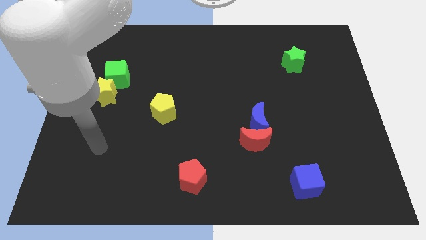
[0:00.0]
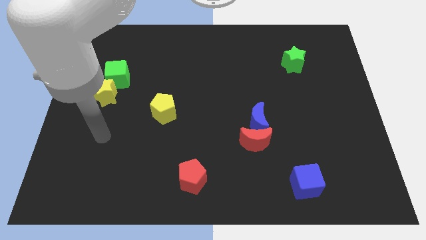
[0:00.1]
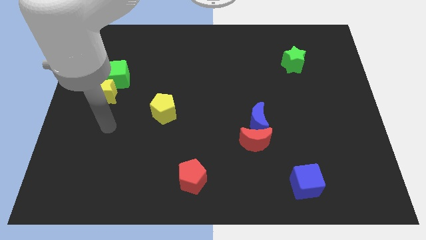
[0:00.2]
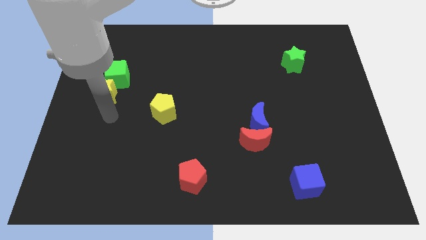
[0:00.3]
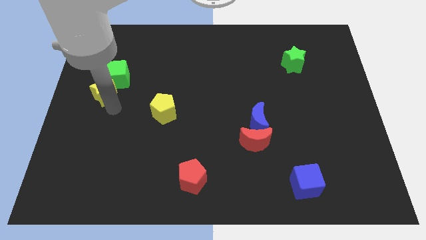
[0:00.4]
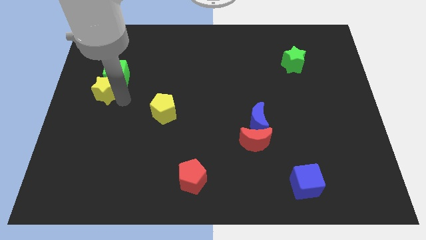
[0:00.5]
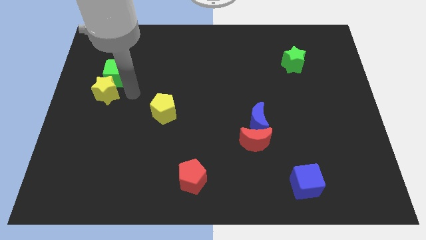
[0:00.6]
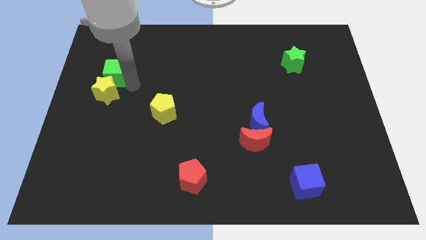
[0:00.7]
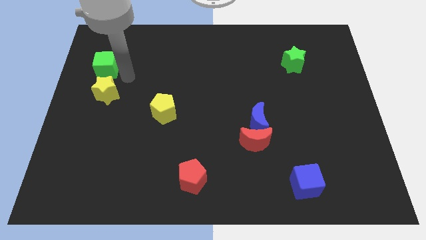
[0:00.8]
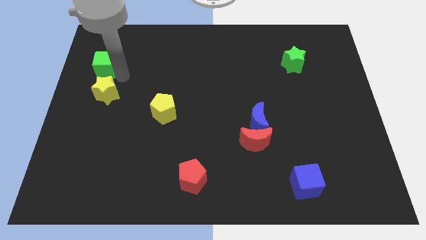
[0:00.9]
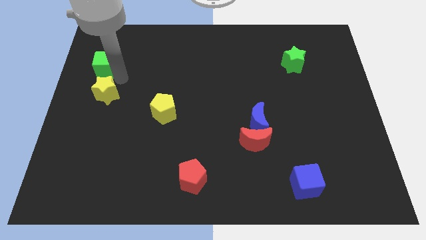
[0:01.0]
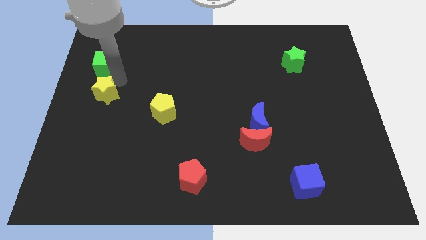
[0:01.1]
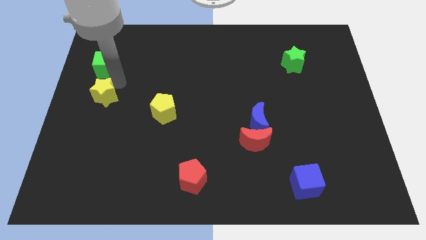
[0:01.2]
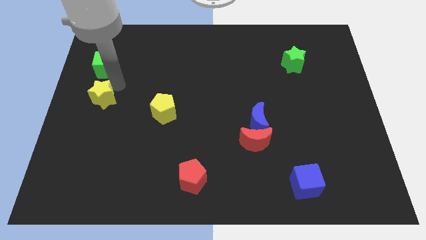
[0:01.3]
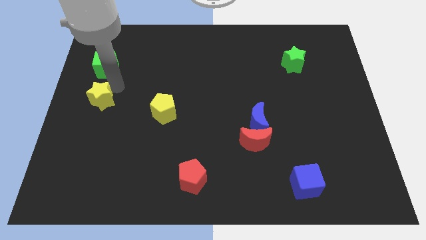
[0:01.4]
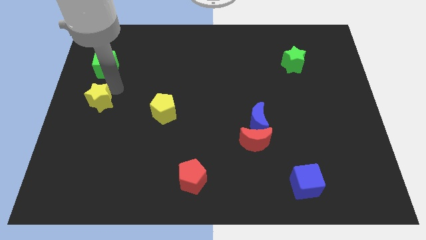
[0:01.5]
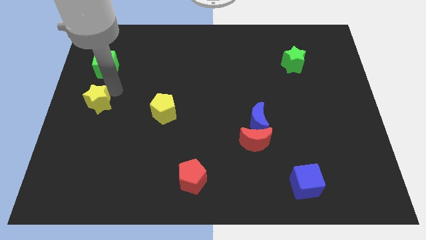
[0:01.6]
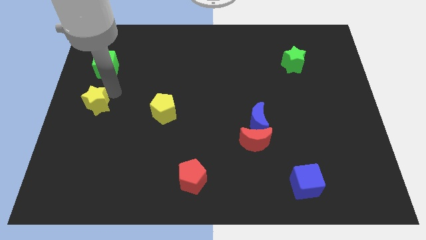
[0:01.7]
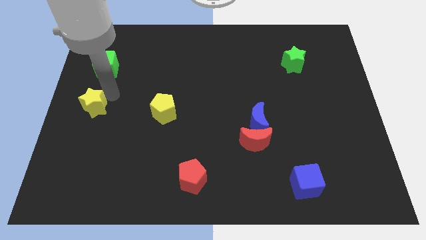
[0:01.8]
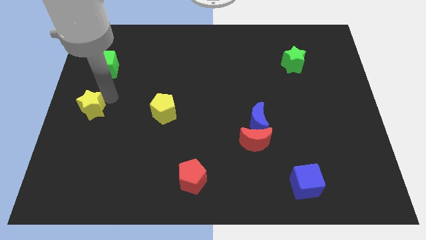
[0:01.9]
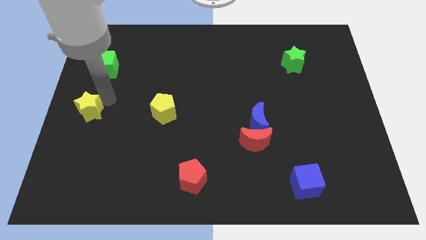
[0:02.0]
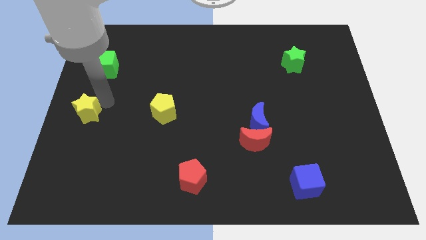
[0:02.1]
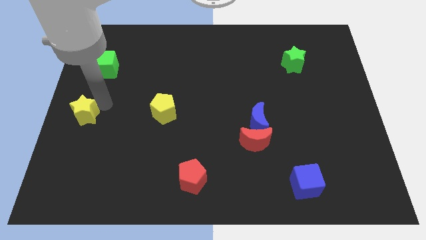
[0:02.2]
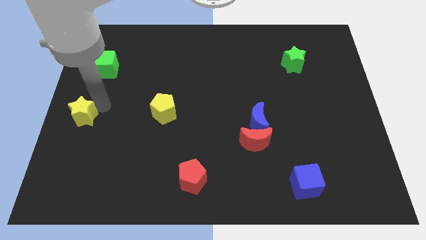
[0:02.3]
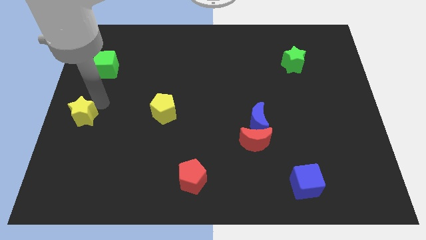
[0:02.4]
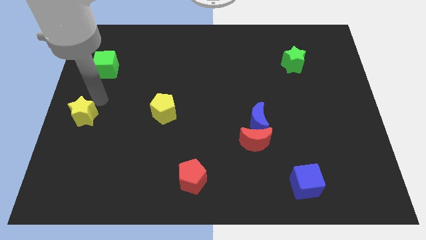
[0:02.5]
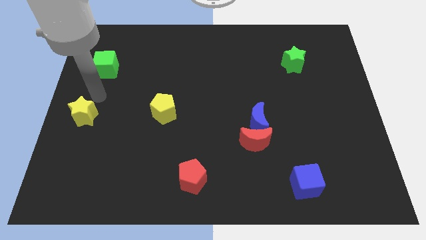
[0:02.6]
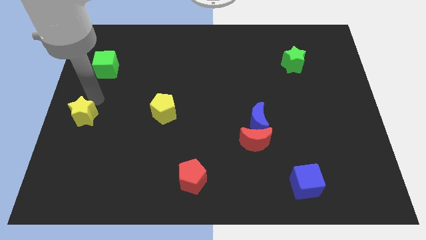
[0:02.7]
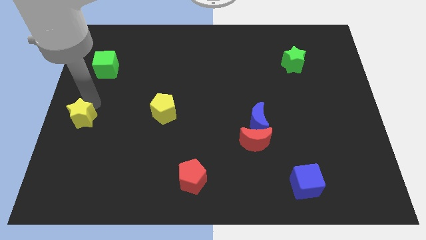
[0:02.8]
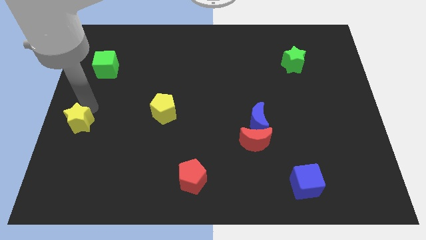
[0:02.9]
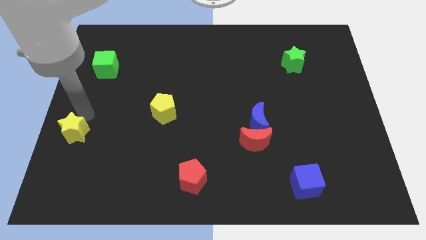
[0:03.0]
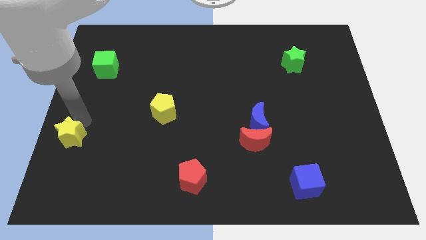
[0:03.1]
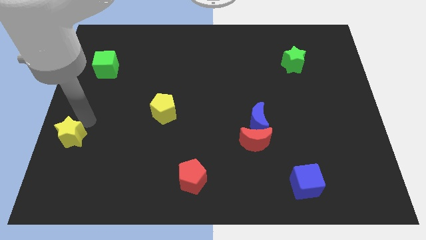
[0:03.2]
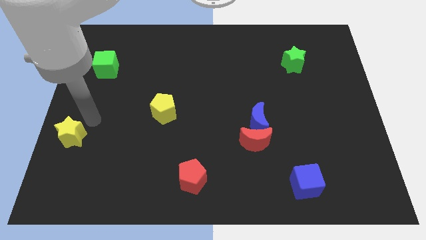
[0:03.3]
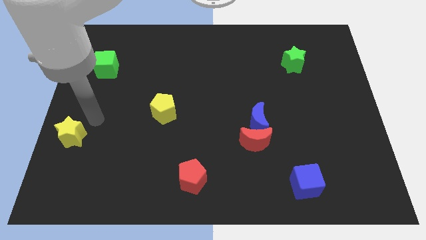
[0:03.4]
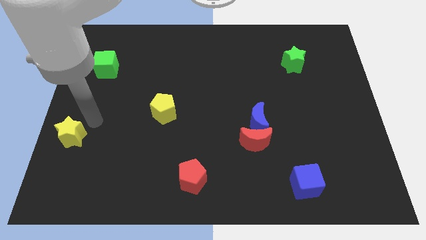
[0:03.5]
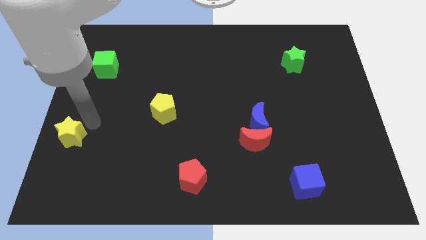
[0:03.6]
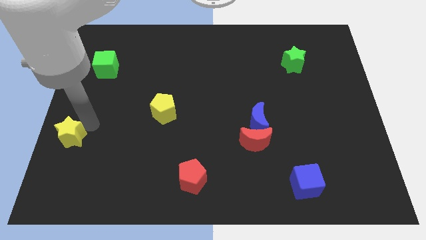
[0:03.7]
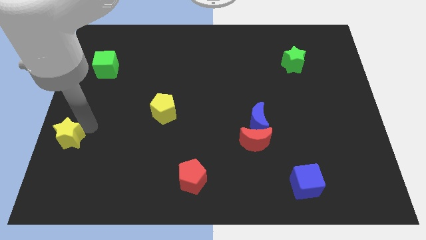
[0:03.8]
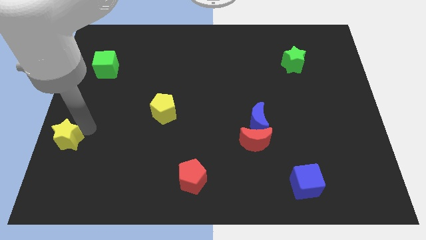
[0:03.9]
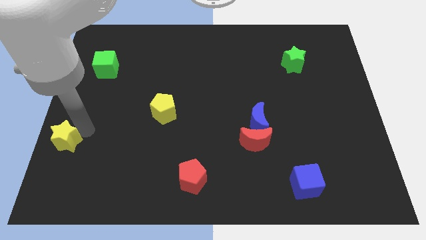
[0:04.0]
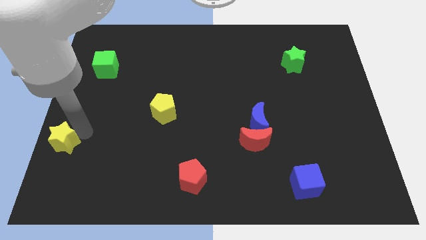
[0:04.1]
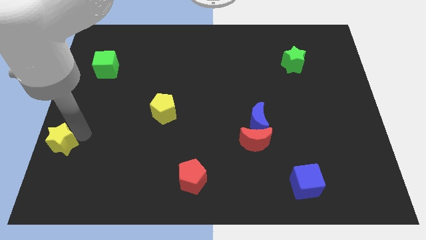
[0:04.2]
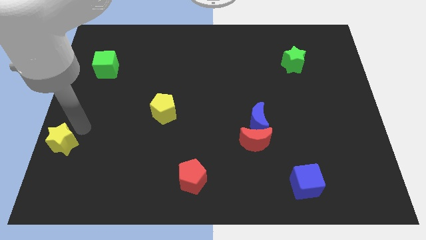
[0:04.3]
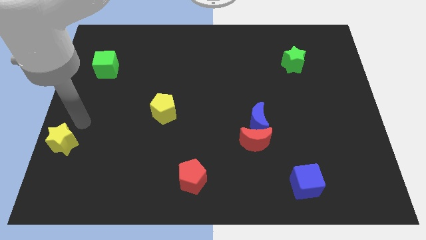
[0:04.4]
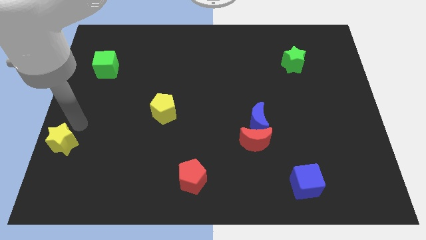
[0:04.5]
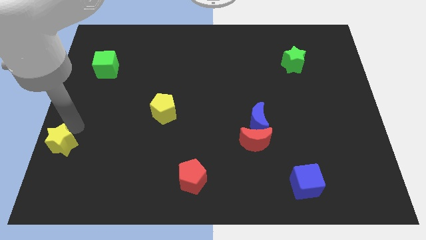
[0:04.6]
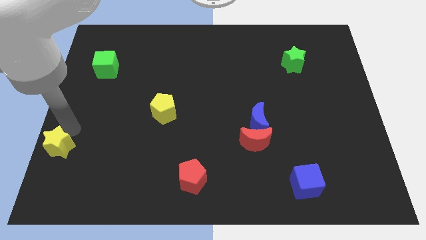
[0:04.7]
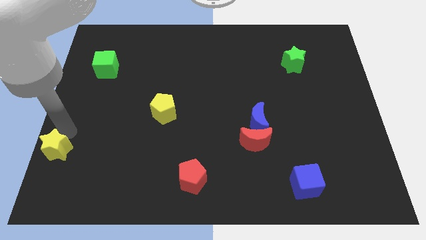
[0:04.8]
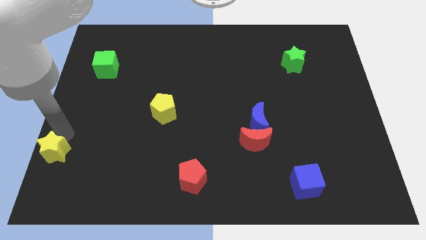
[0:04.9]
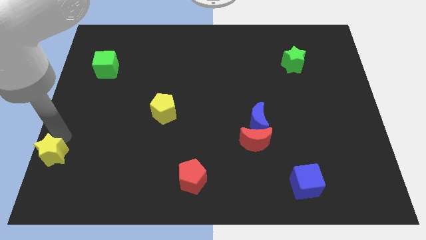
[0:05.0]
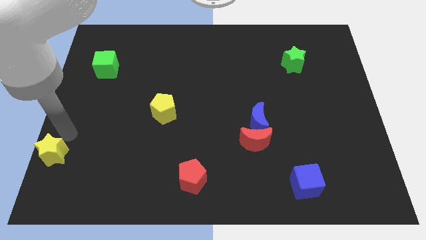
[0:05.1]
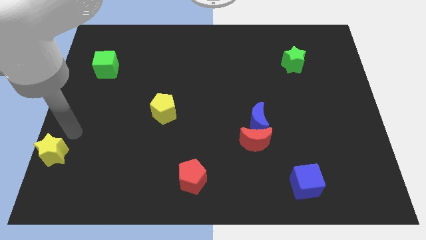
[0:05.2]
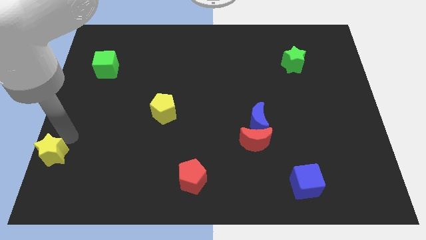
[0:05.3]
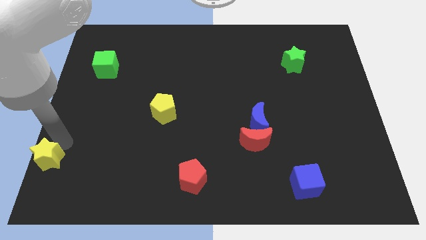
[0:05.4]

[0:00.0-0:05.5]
push the yellow star to the bottom left corner
